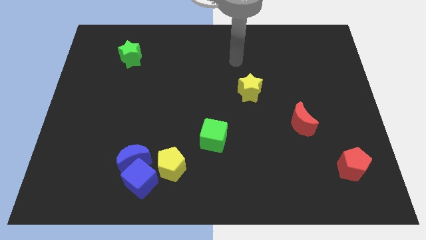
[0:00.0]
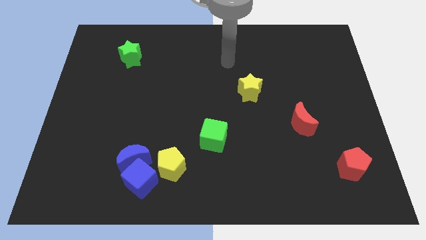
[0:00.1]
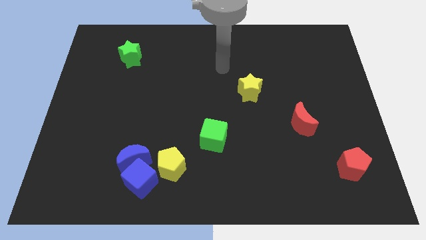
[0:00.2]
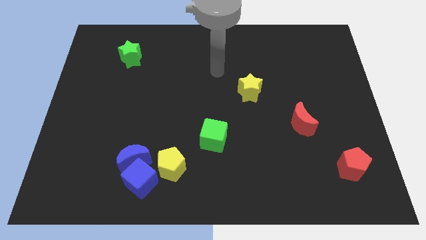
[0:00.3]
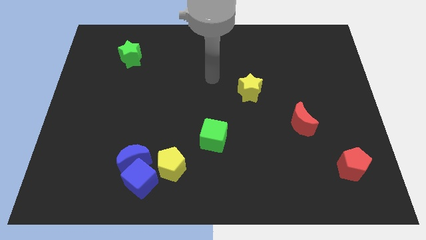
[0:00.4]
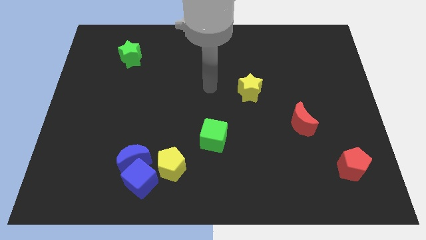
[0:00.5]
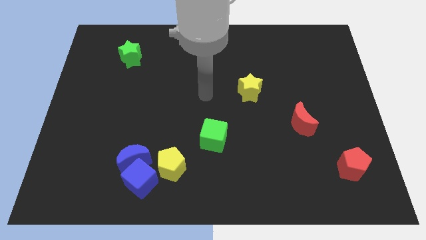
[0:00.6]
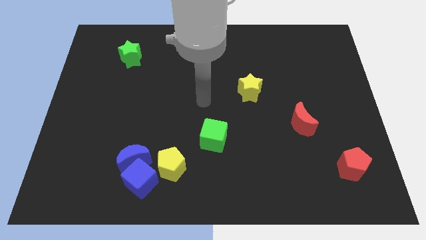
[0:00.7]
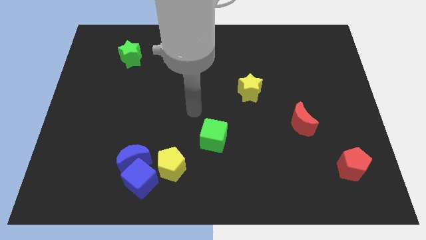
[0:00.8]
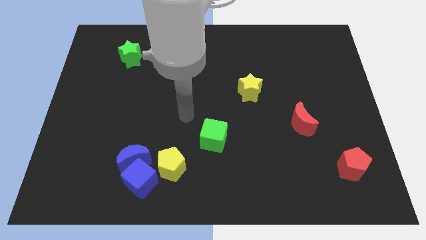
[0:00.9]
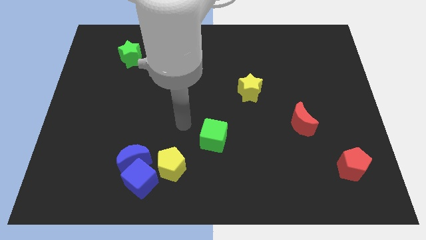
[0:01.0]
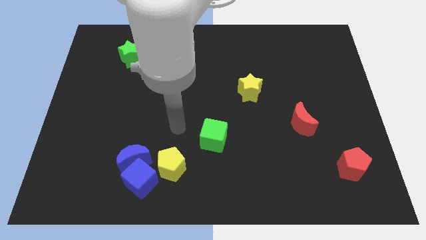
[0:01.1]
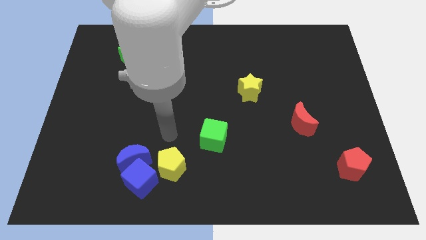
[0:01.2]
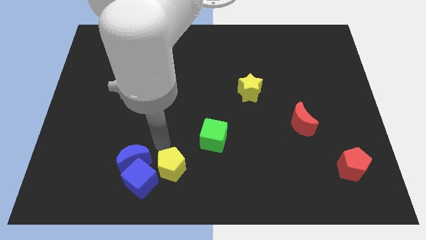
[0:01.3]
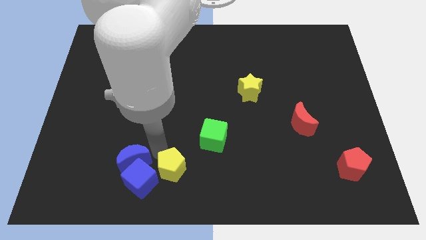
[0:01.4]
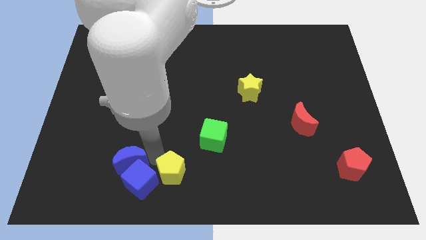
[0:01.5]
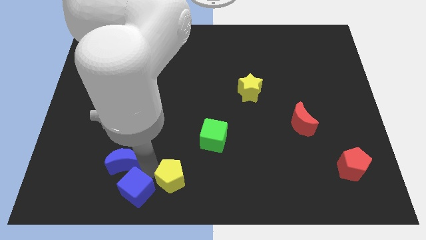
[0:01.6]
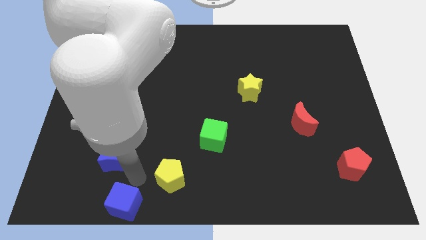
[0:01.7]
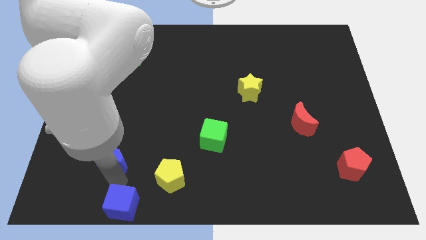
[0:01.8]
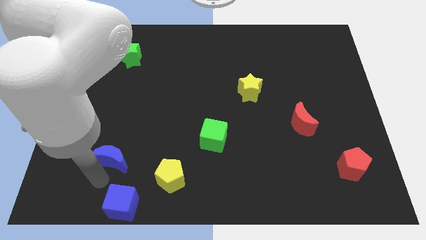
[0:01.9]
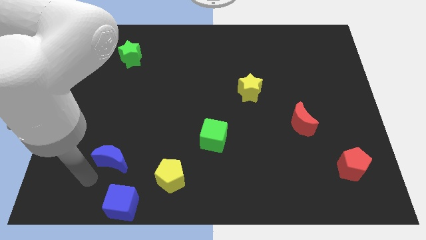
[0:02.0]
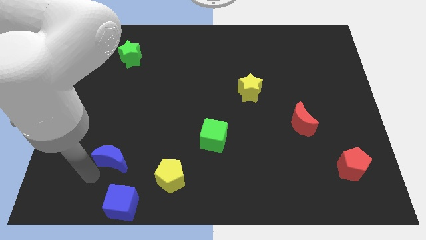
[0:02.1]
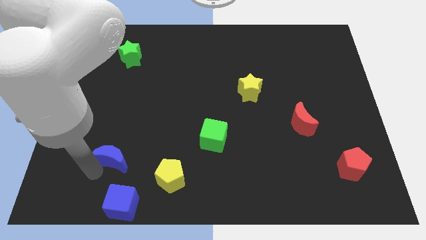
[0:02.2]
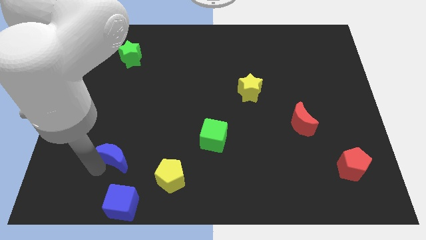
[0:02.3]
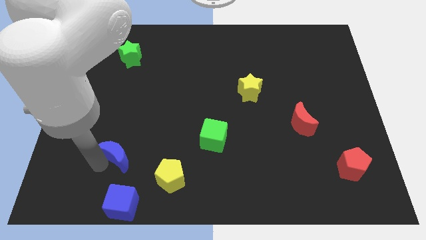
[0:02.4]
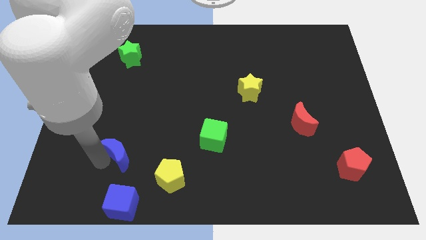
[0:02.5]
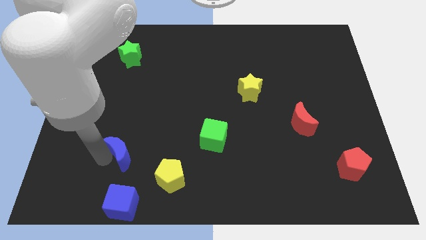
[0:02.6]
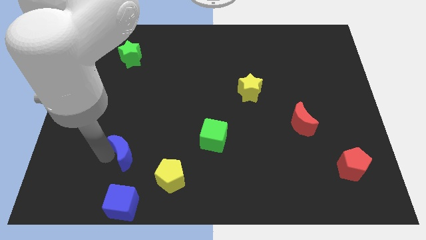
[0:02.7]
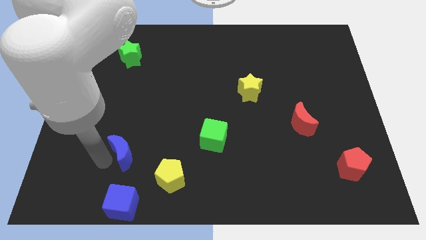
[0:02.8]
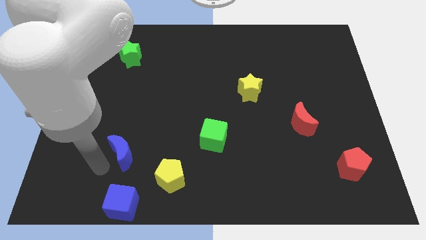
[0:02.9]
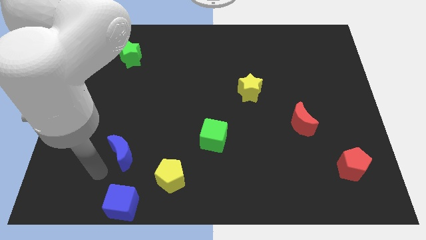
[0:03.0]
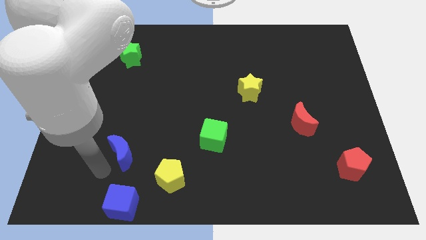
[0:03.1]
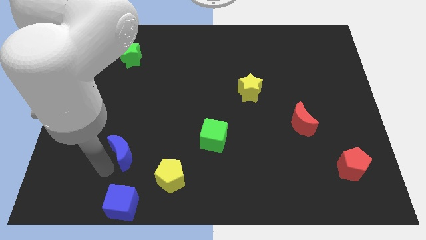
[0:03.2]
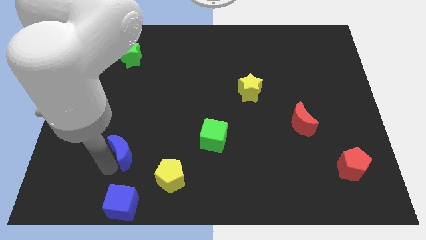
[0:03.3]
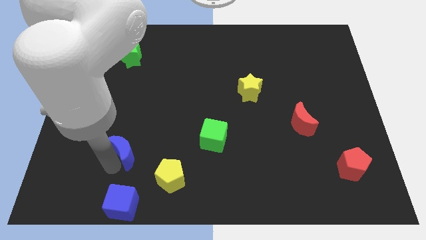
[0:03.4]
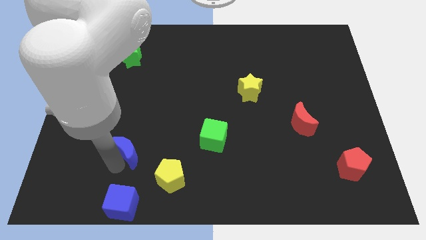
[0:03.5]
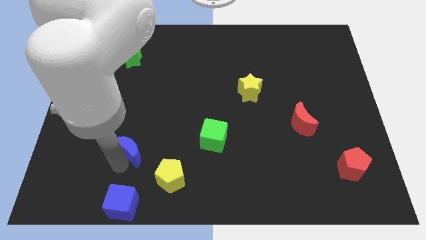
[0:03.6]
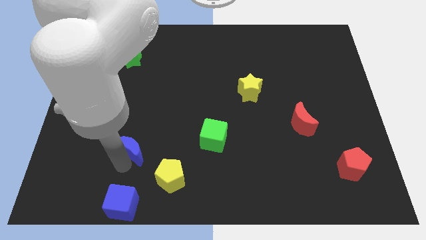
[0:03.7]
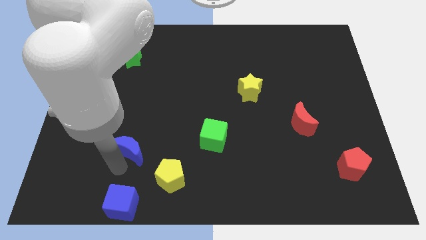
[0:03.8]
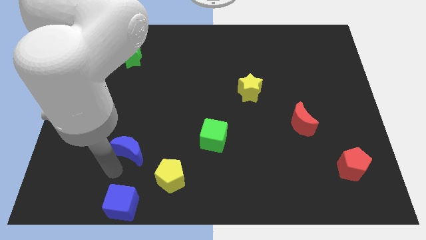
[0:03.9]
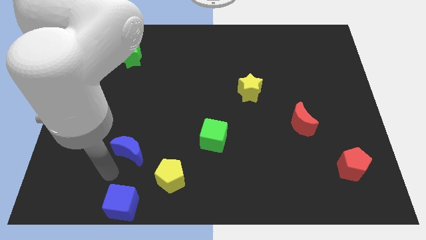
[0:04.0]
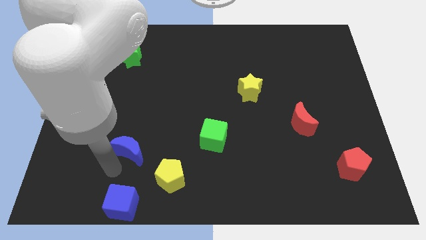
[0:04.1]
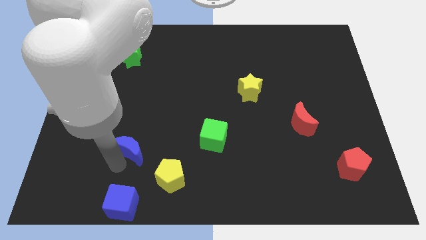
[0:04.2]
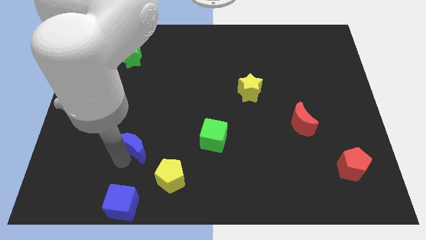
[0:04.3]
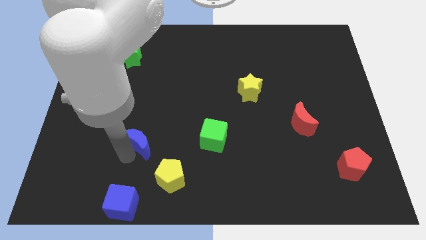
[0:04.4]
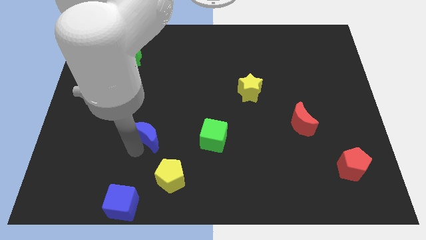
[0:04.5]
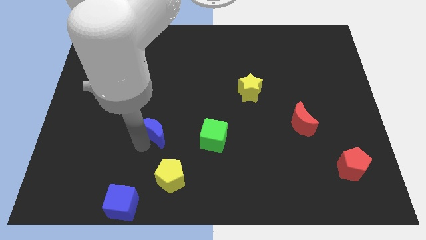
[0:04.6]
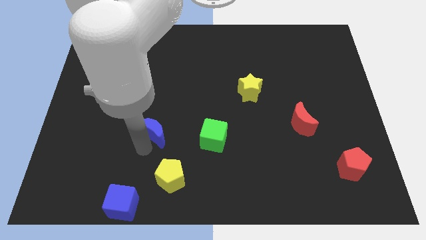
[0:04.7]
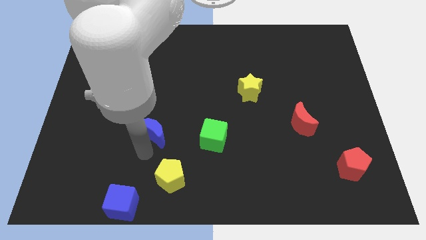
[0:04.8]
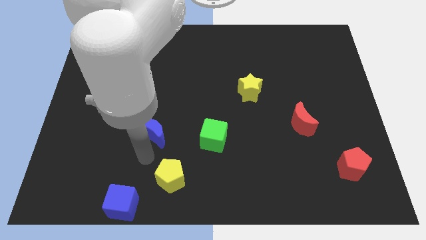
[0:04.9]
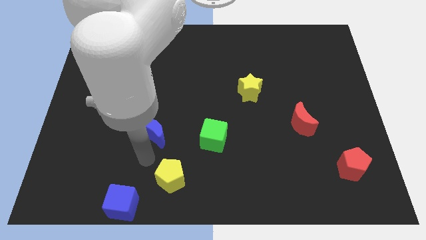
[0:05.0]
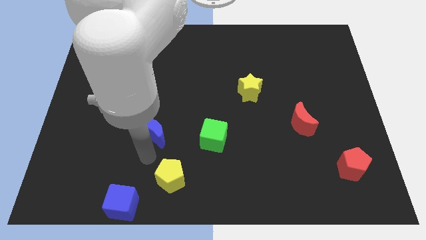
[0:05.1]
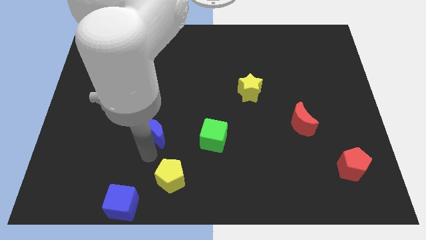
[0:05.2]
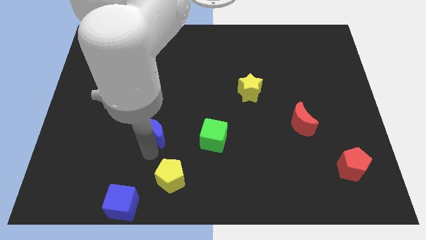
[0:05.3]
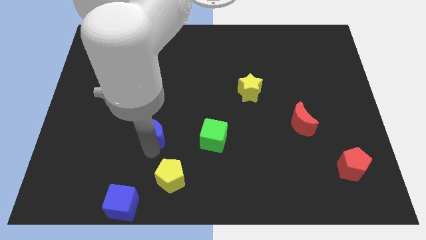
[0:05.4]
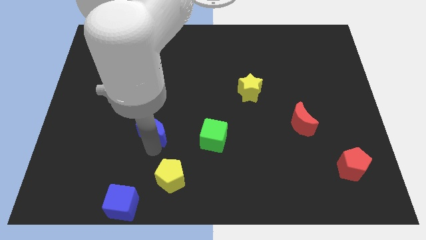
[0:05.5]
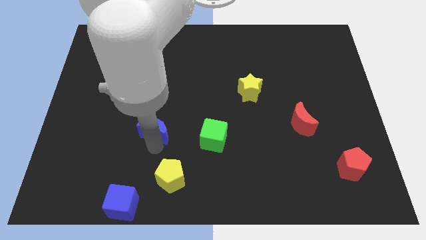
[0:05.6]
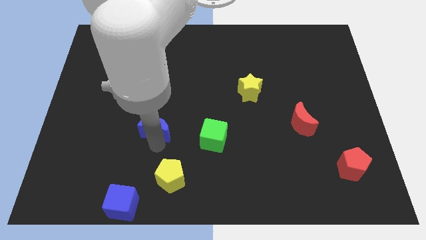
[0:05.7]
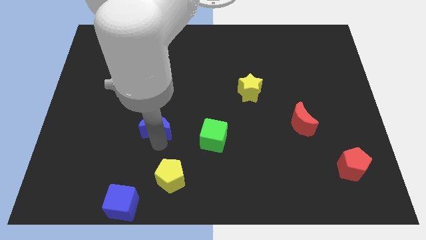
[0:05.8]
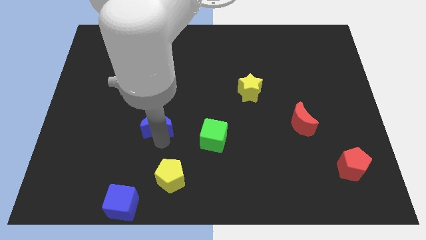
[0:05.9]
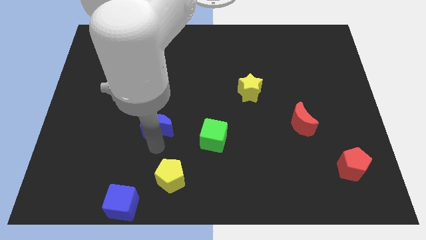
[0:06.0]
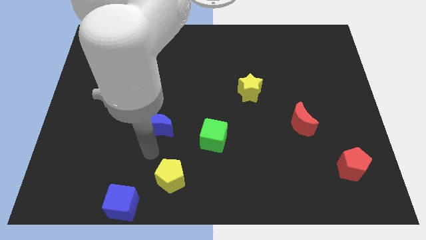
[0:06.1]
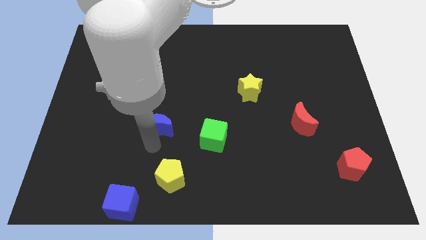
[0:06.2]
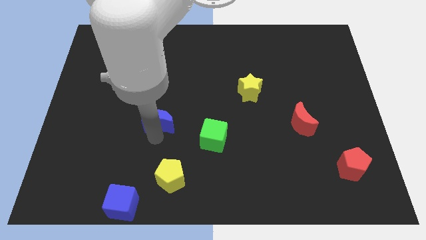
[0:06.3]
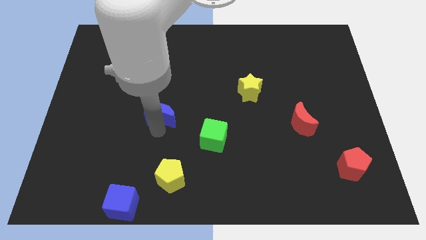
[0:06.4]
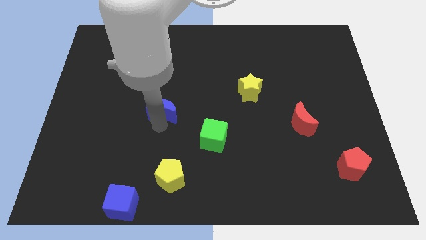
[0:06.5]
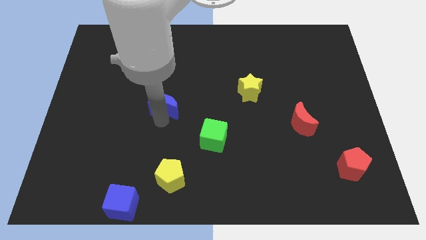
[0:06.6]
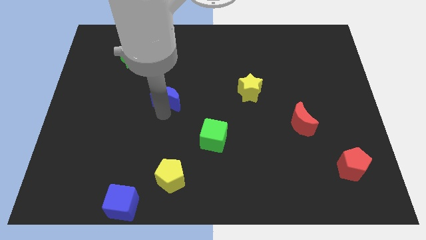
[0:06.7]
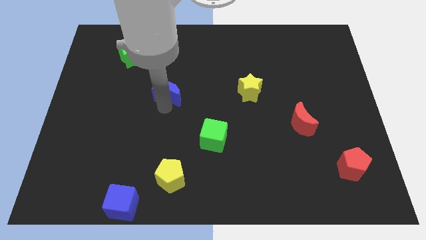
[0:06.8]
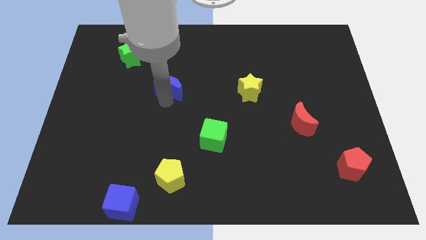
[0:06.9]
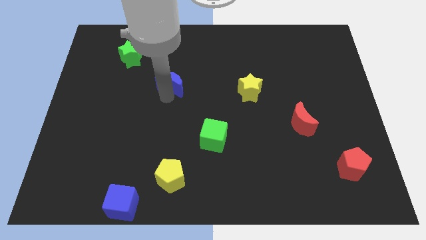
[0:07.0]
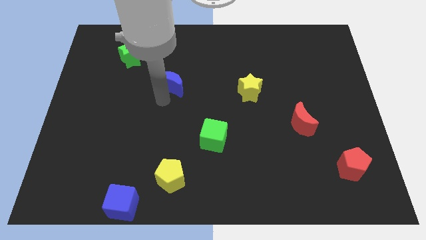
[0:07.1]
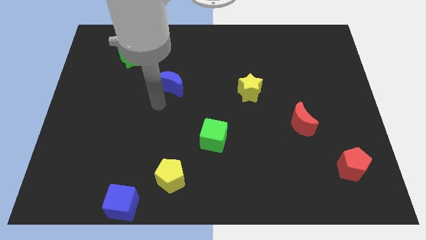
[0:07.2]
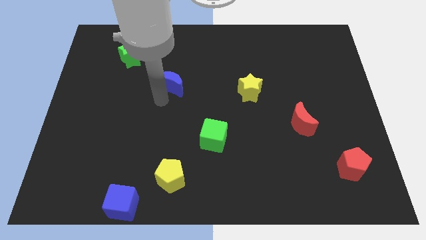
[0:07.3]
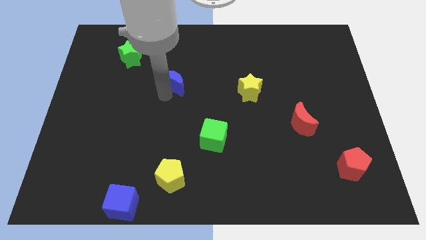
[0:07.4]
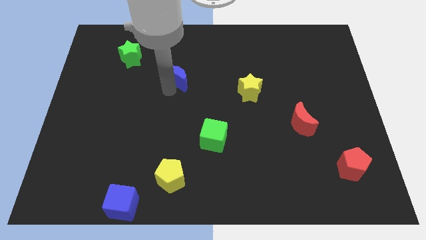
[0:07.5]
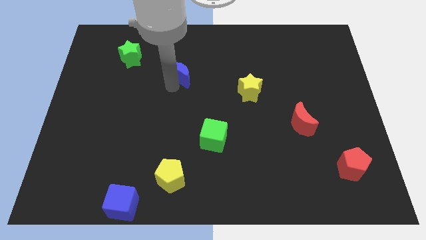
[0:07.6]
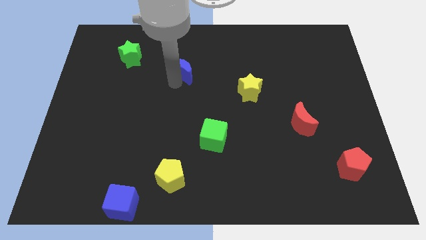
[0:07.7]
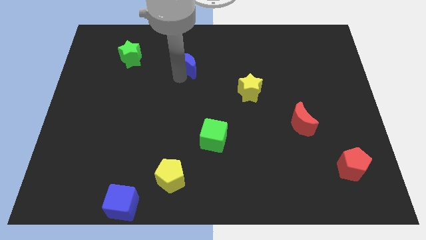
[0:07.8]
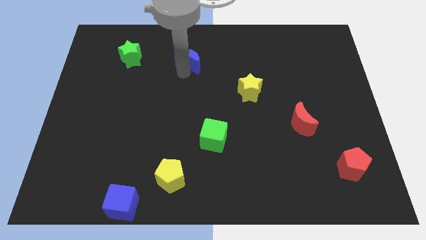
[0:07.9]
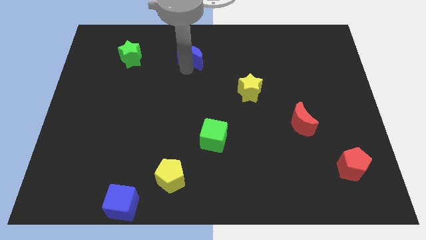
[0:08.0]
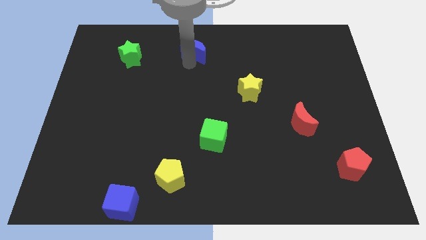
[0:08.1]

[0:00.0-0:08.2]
put the blue moon to the top side
